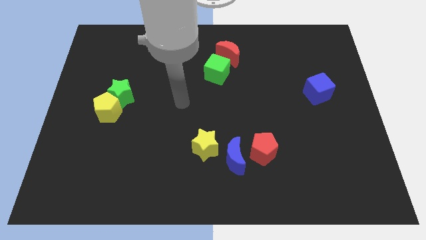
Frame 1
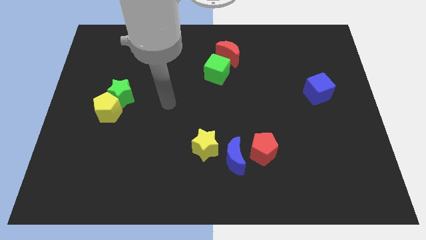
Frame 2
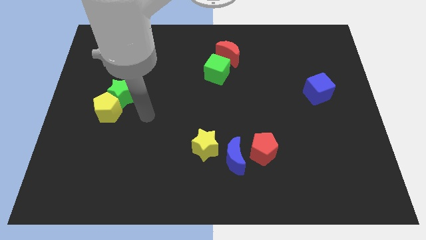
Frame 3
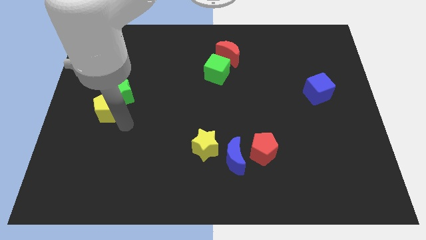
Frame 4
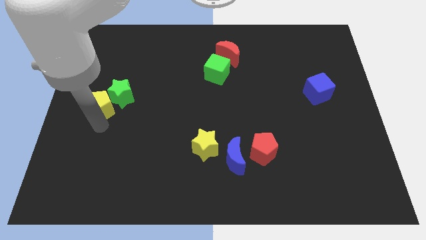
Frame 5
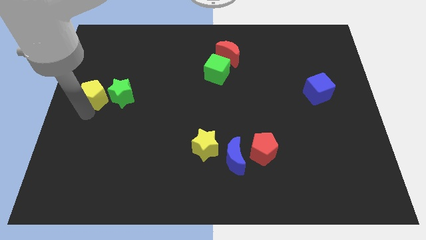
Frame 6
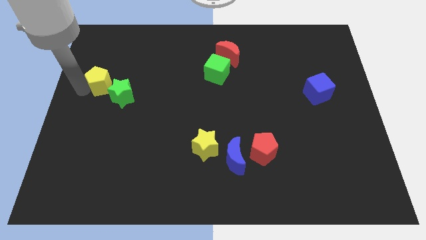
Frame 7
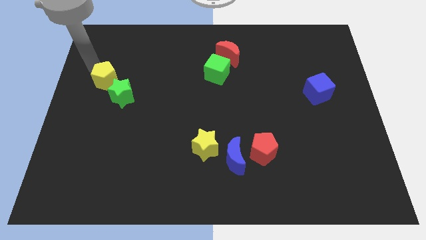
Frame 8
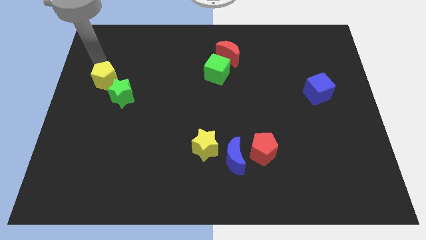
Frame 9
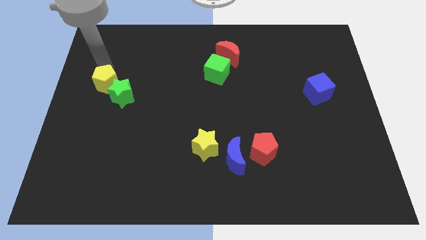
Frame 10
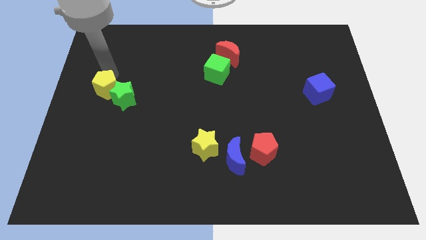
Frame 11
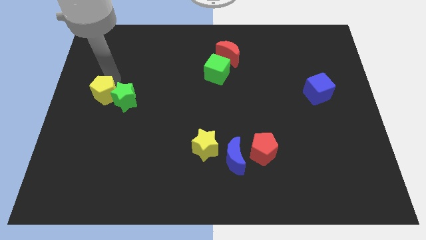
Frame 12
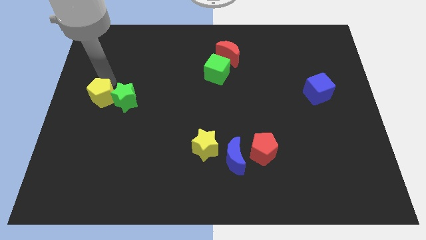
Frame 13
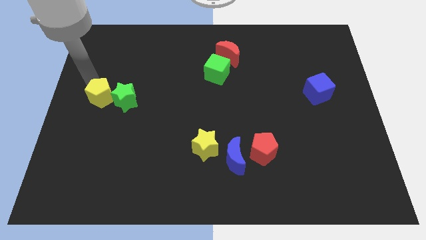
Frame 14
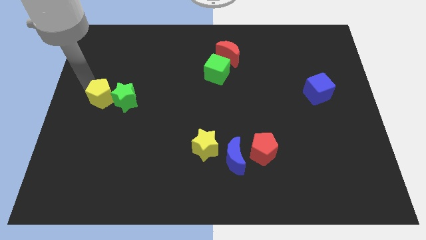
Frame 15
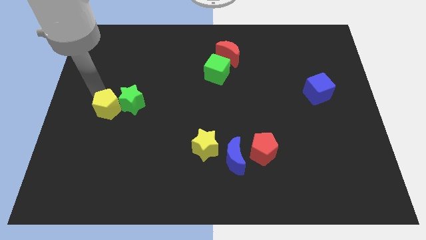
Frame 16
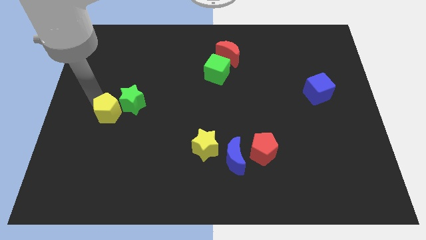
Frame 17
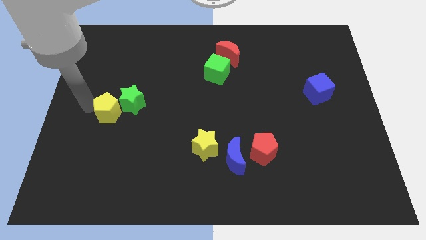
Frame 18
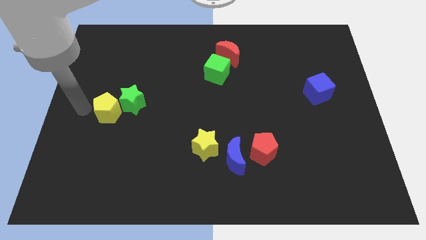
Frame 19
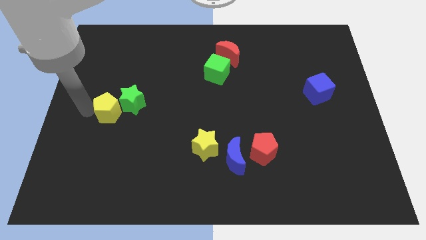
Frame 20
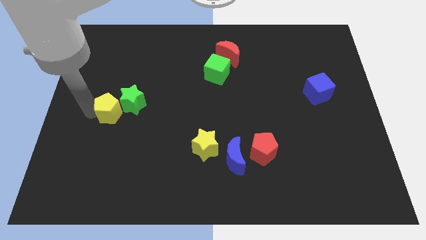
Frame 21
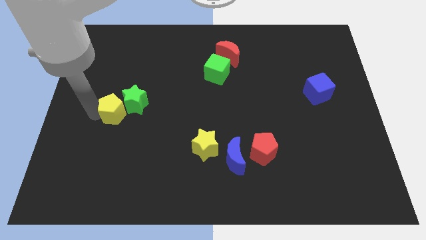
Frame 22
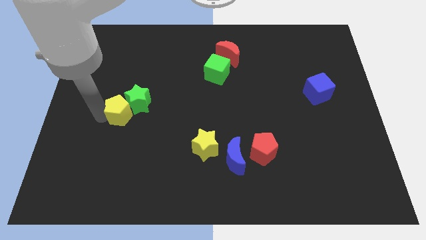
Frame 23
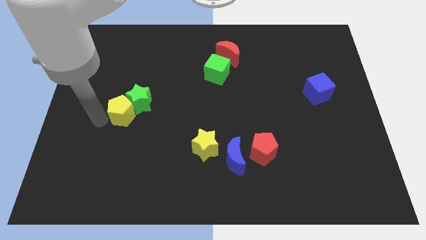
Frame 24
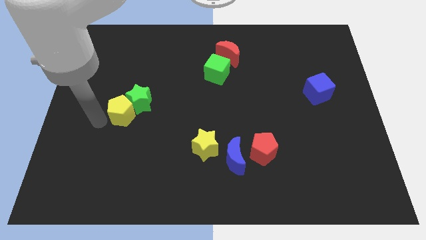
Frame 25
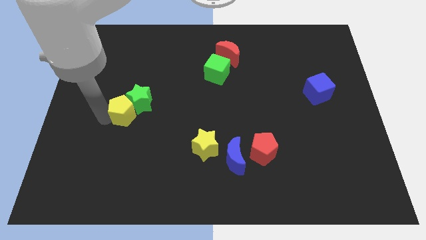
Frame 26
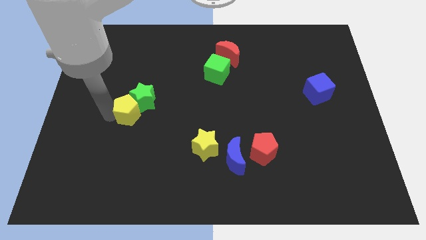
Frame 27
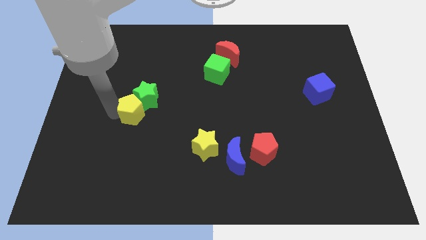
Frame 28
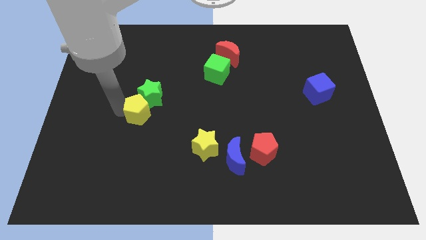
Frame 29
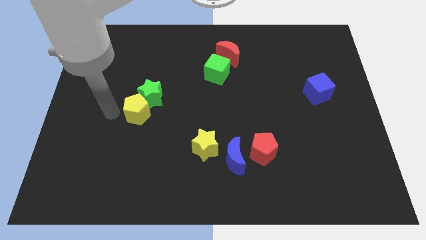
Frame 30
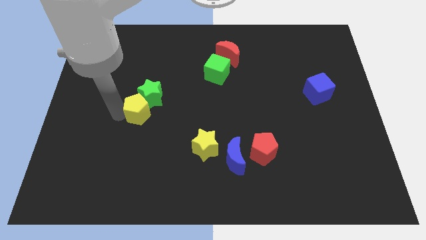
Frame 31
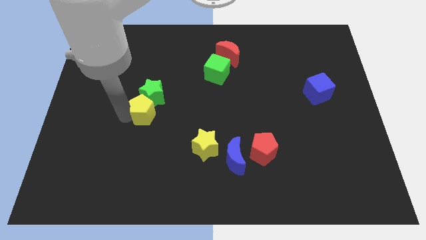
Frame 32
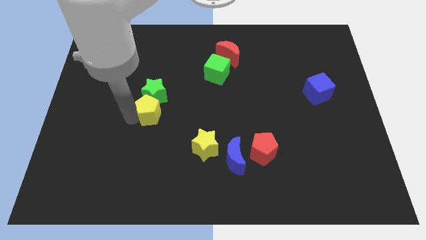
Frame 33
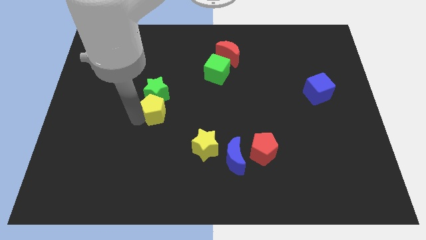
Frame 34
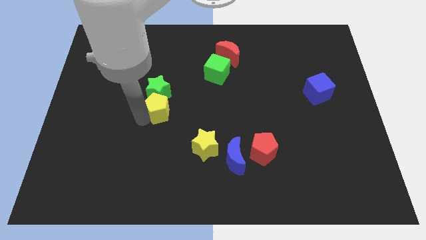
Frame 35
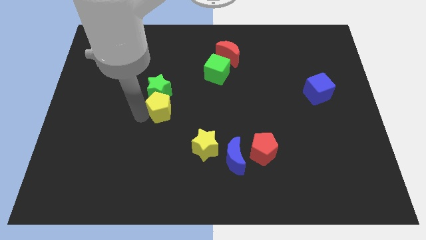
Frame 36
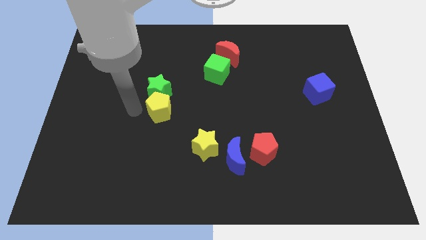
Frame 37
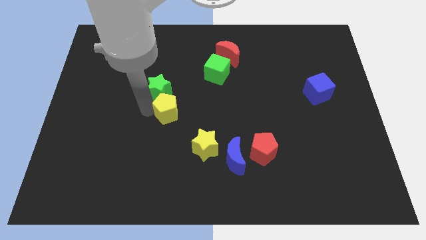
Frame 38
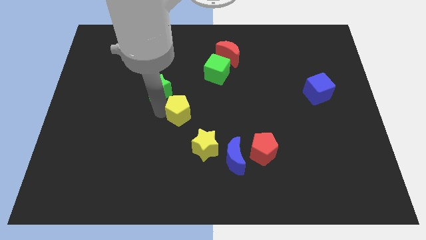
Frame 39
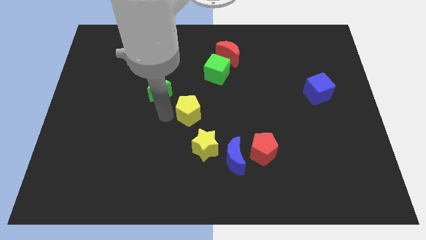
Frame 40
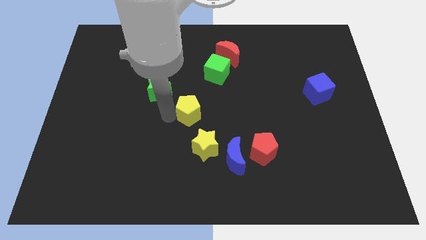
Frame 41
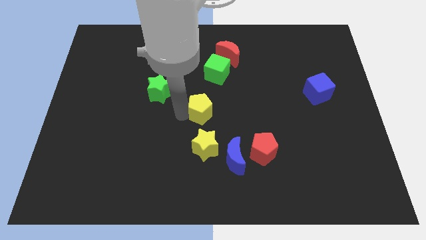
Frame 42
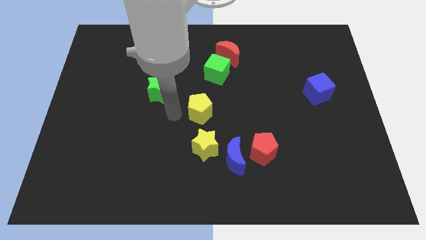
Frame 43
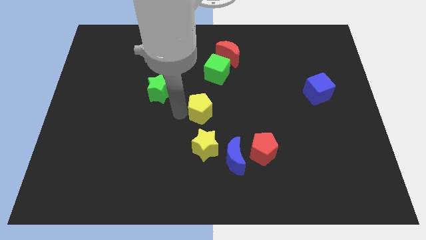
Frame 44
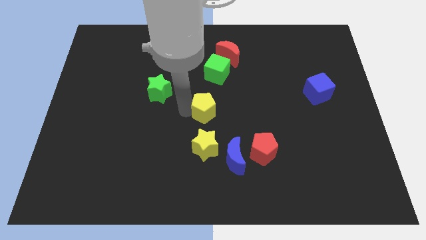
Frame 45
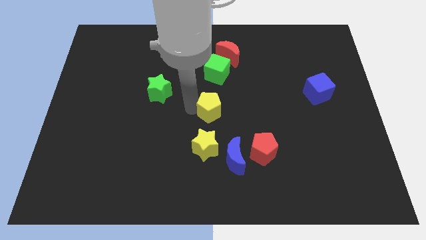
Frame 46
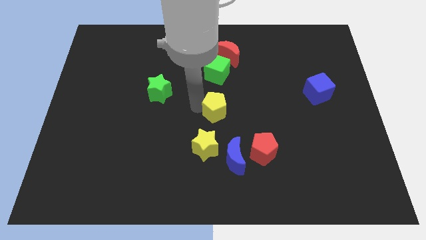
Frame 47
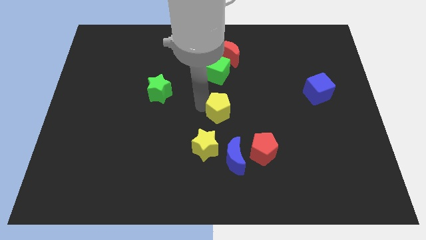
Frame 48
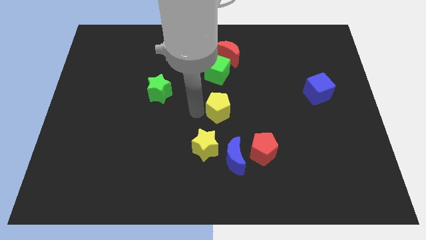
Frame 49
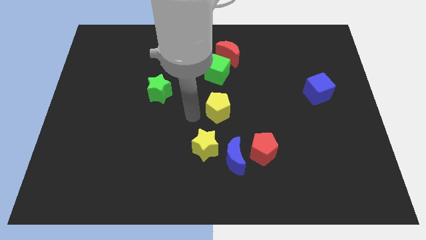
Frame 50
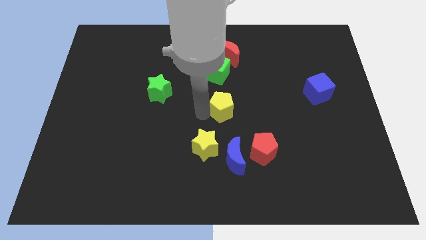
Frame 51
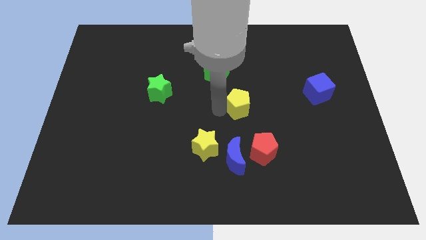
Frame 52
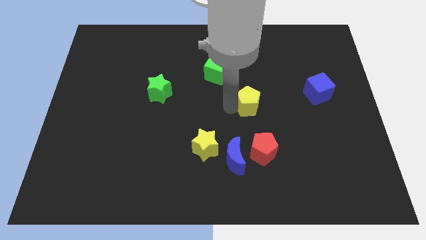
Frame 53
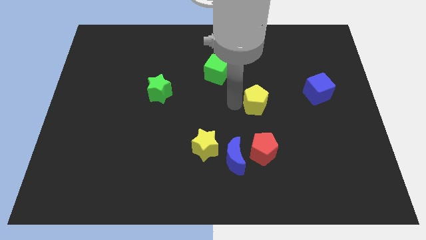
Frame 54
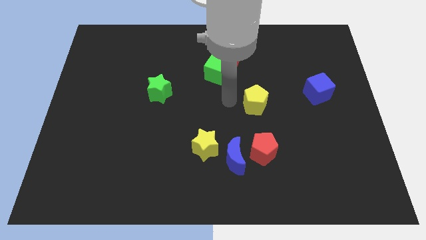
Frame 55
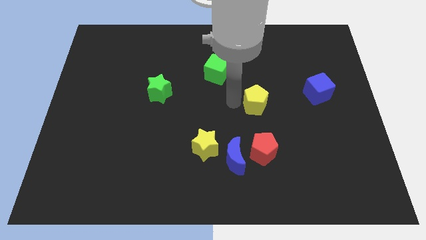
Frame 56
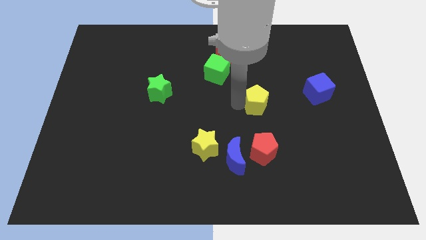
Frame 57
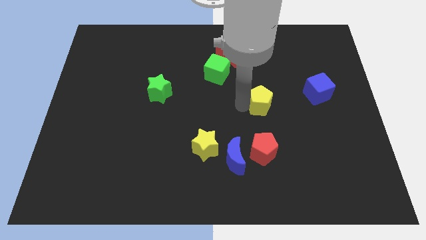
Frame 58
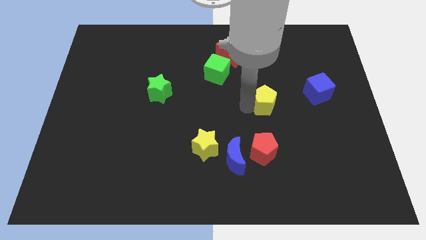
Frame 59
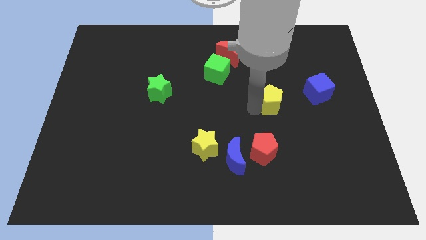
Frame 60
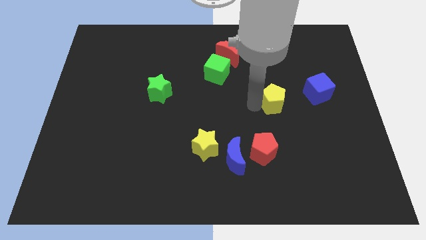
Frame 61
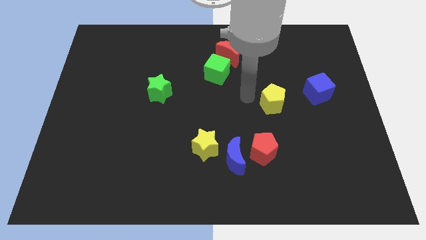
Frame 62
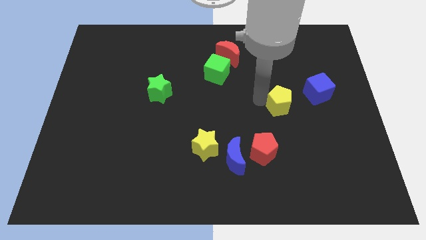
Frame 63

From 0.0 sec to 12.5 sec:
slide the yellow pentagon to the bottom left side of the blue cube

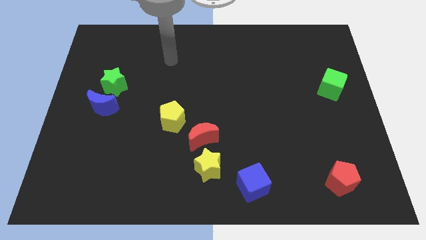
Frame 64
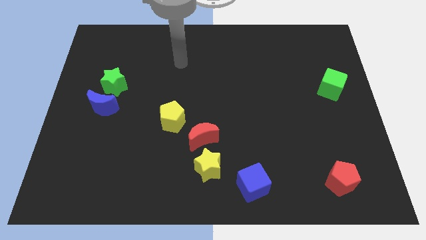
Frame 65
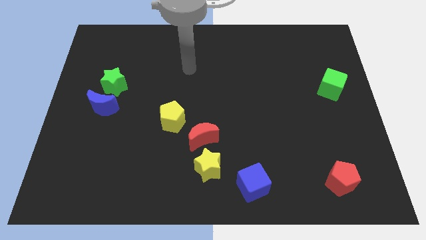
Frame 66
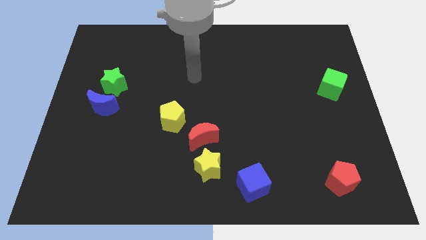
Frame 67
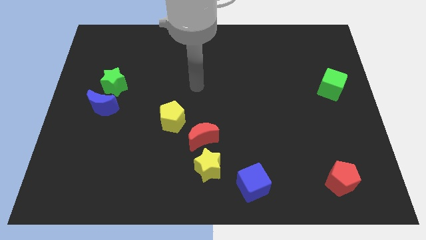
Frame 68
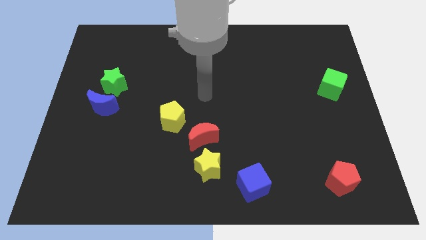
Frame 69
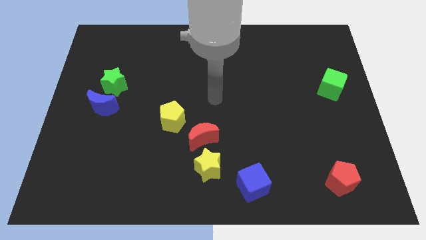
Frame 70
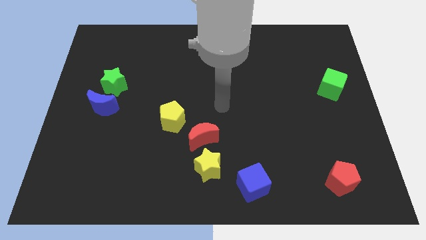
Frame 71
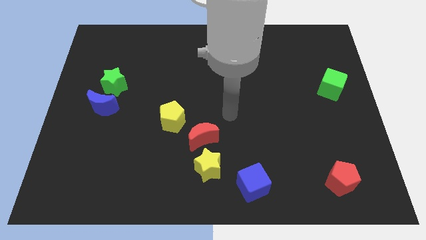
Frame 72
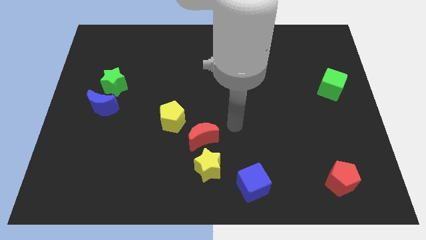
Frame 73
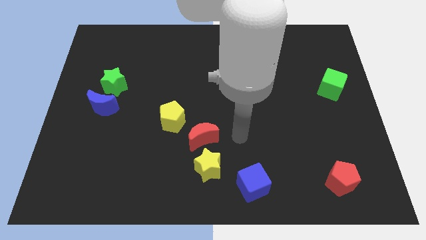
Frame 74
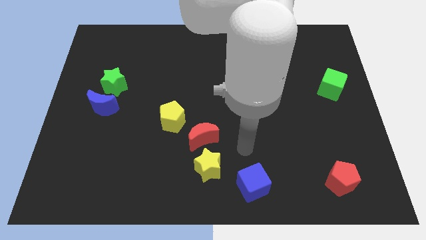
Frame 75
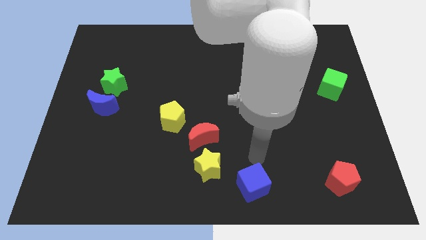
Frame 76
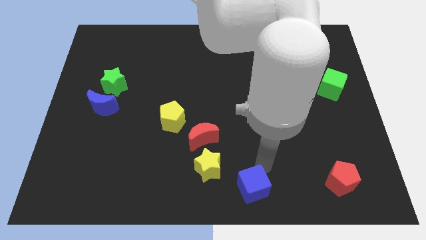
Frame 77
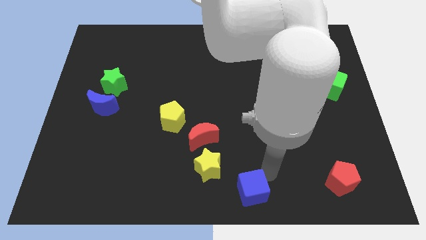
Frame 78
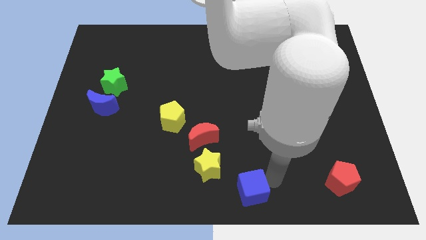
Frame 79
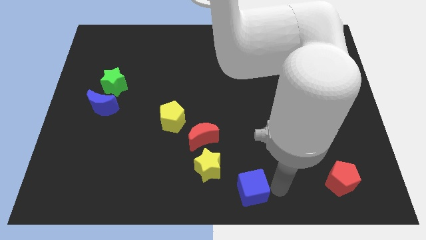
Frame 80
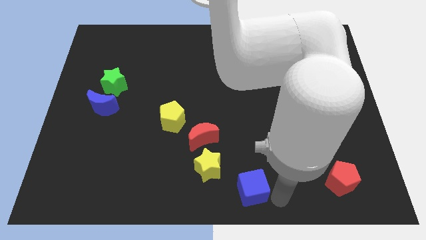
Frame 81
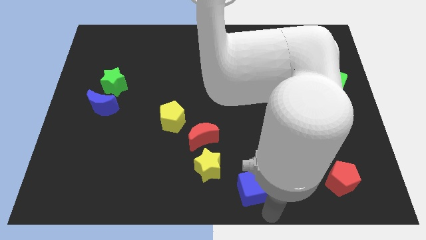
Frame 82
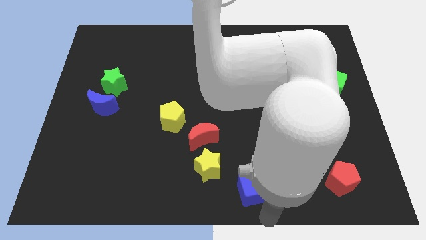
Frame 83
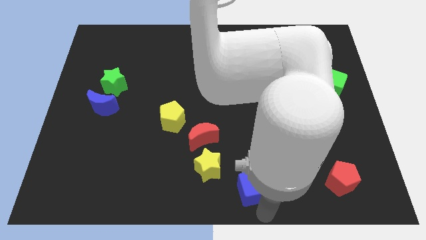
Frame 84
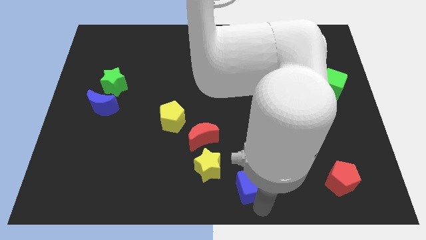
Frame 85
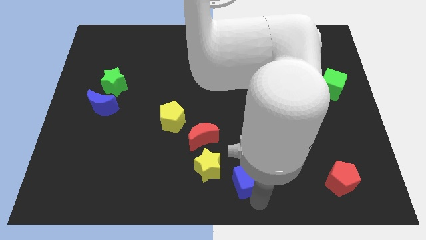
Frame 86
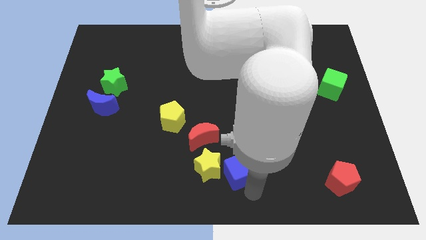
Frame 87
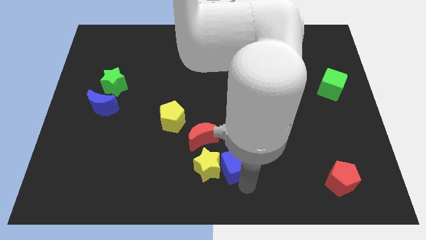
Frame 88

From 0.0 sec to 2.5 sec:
slide the blue cube to the top right side of the yellow star
